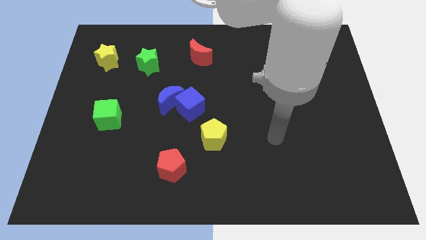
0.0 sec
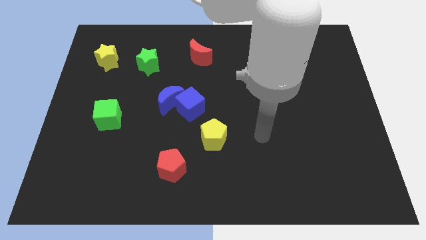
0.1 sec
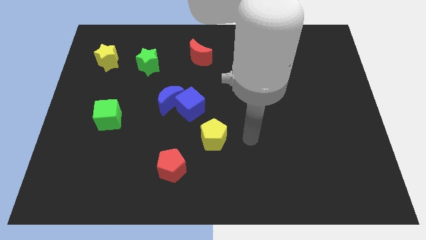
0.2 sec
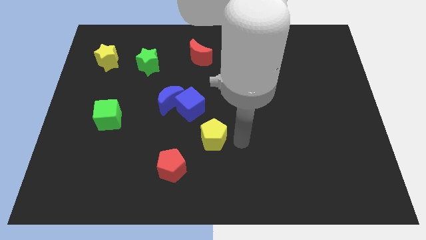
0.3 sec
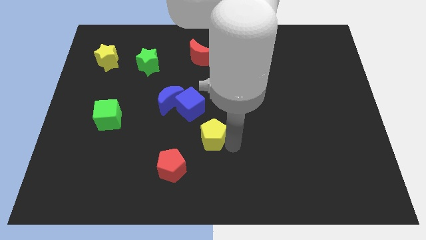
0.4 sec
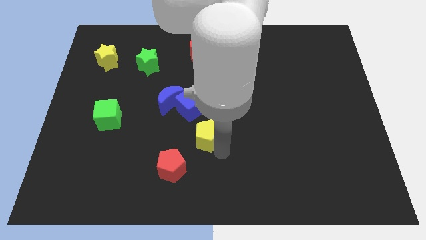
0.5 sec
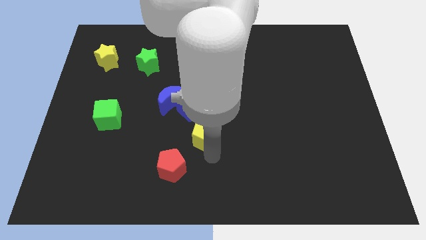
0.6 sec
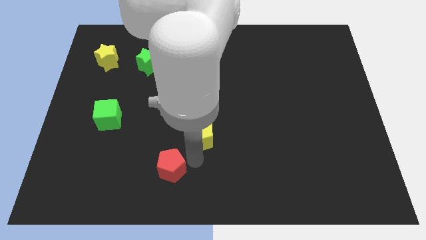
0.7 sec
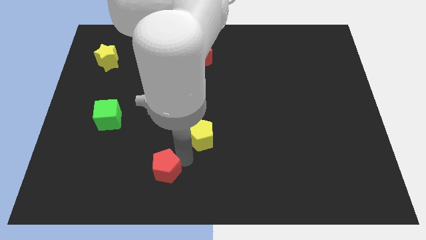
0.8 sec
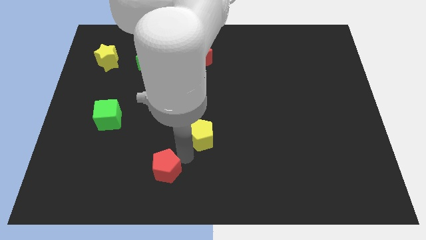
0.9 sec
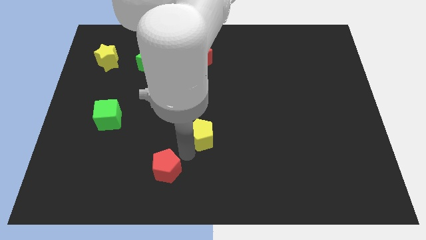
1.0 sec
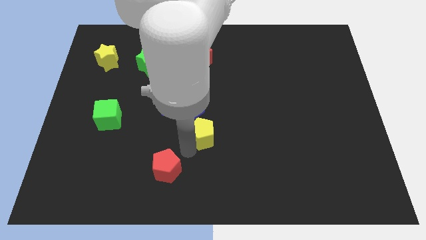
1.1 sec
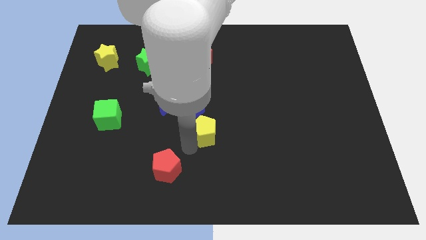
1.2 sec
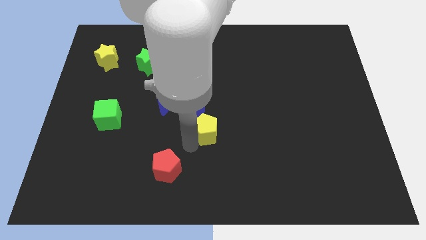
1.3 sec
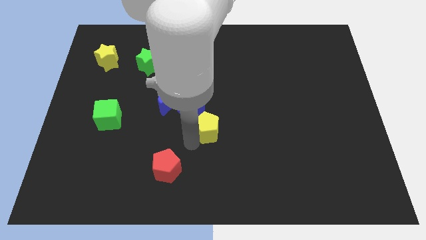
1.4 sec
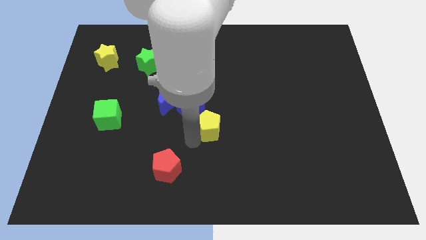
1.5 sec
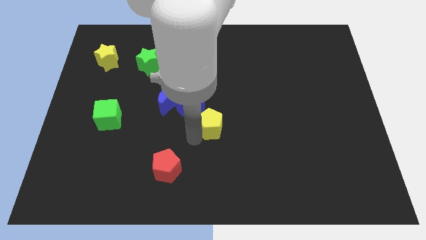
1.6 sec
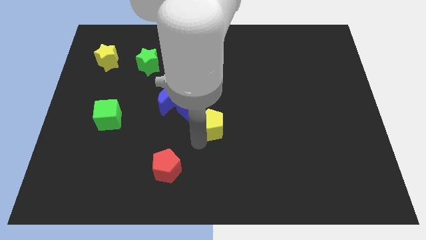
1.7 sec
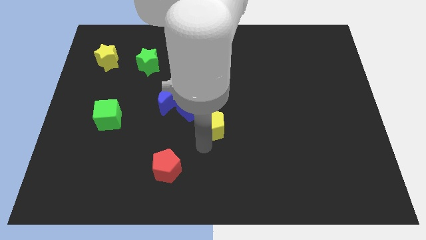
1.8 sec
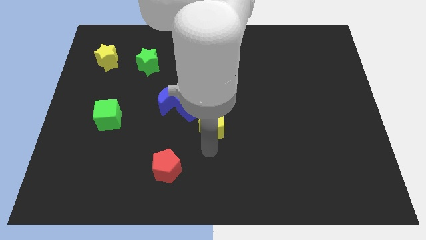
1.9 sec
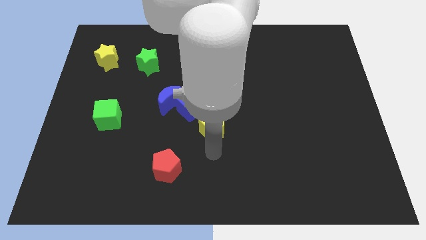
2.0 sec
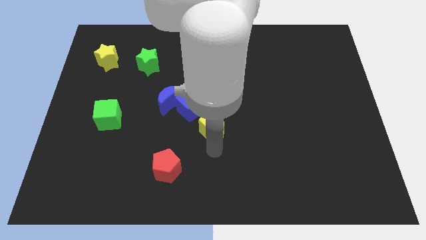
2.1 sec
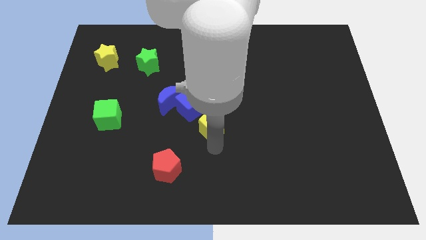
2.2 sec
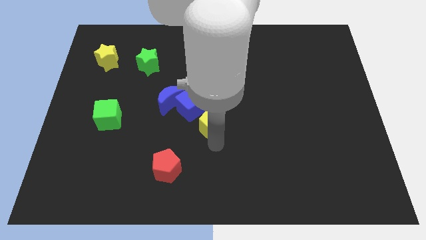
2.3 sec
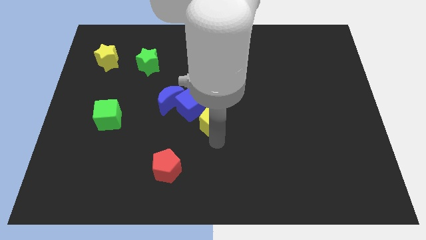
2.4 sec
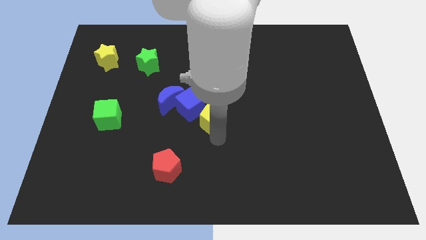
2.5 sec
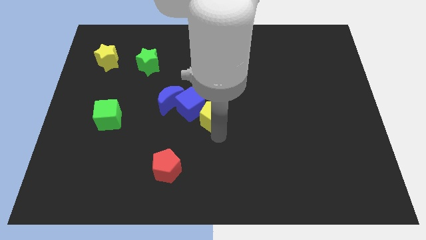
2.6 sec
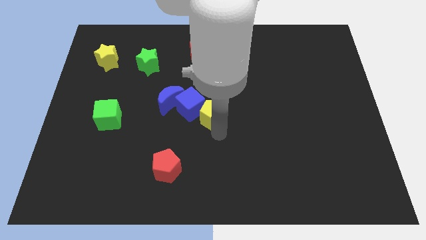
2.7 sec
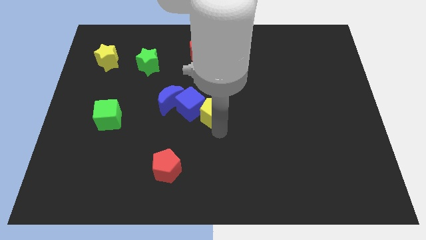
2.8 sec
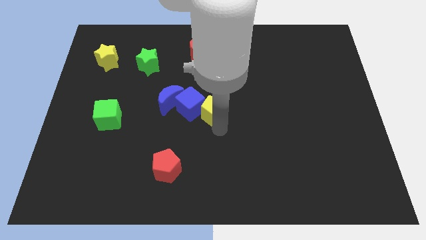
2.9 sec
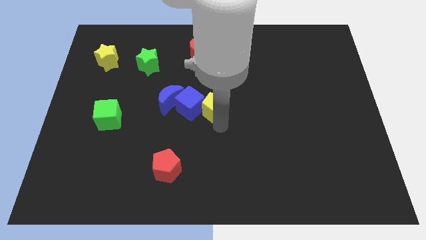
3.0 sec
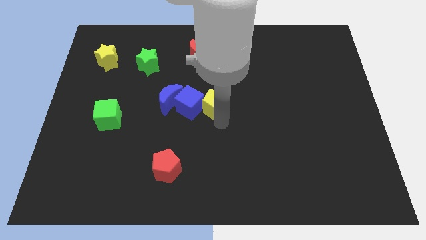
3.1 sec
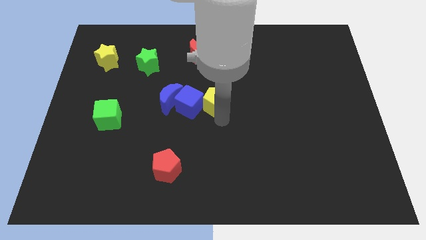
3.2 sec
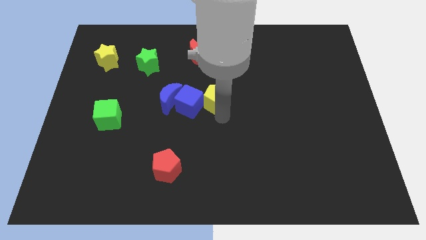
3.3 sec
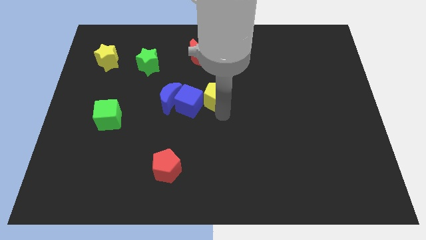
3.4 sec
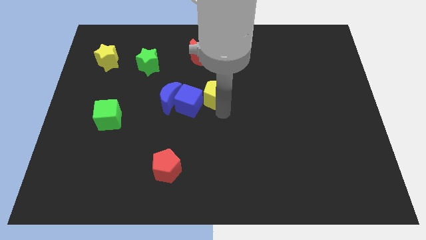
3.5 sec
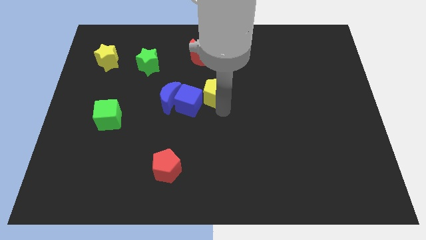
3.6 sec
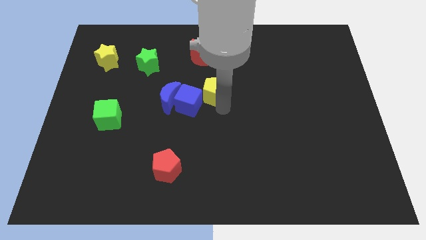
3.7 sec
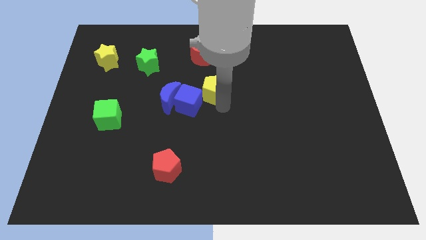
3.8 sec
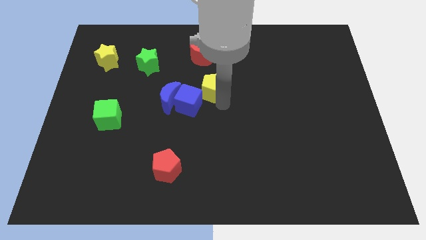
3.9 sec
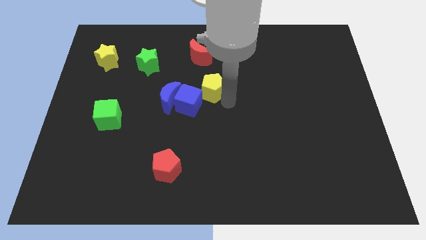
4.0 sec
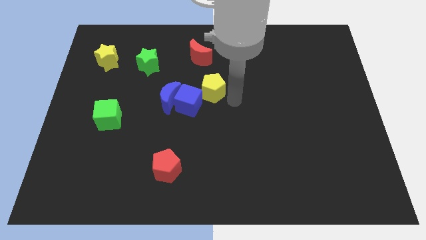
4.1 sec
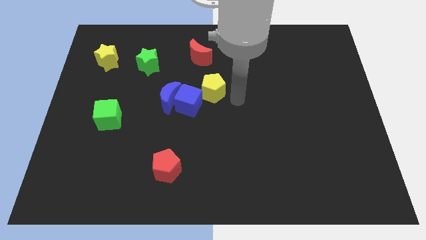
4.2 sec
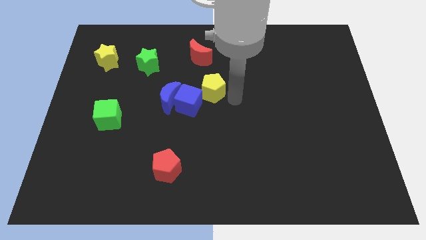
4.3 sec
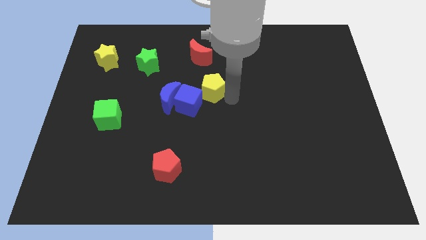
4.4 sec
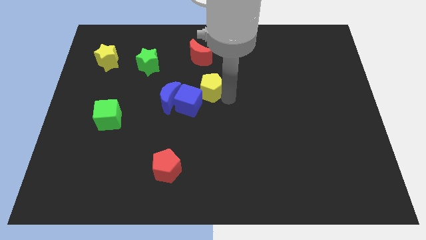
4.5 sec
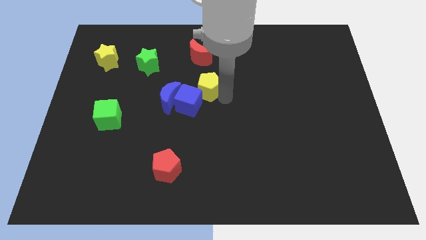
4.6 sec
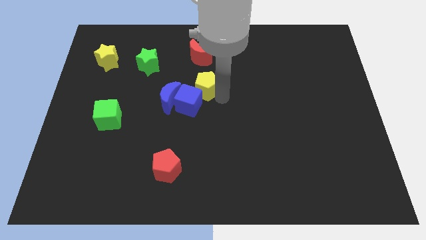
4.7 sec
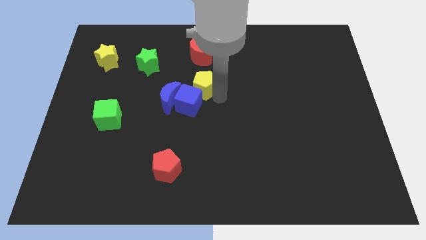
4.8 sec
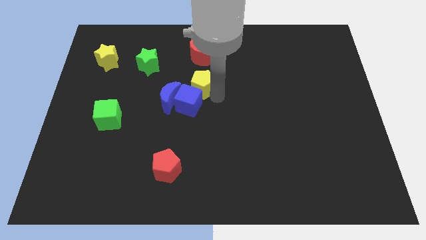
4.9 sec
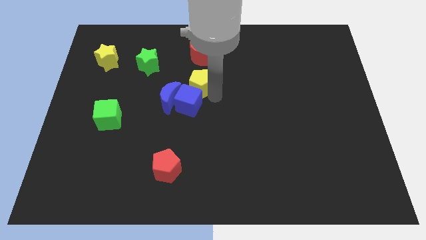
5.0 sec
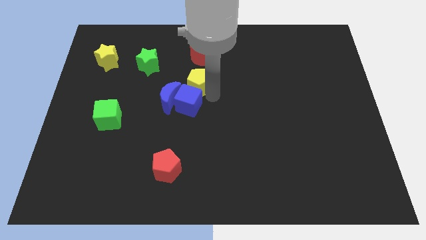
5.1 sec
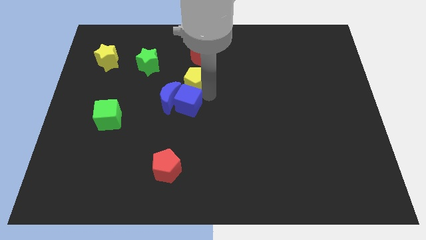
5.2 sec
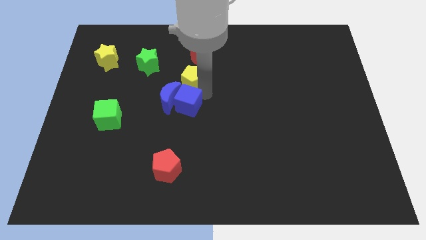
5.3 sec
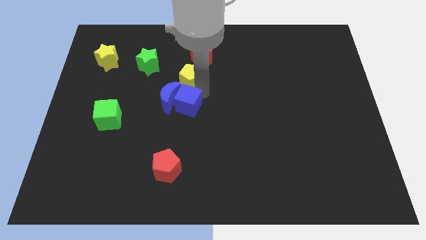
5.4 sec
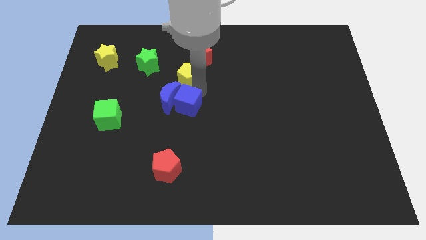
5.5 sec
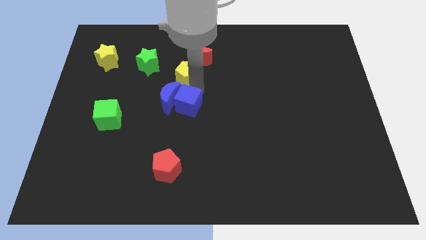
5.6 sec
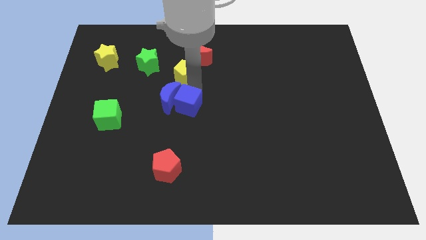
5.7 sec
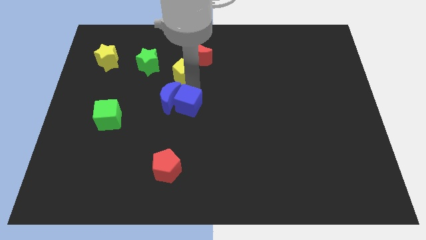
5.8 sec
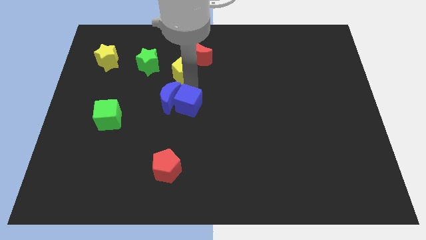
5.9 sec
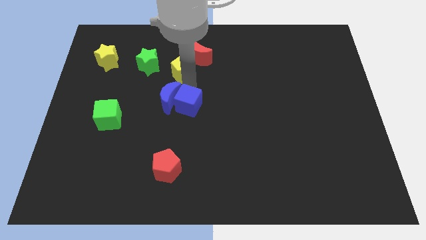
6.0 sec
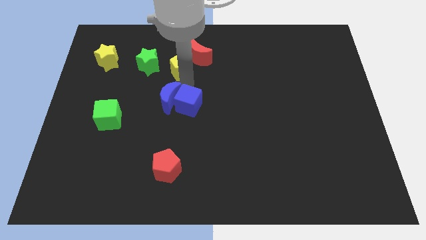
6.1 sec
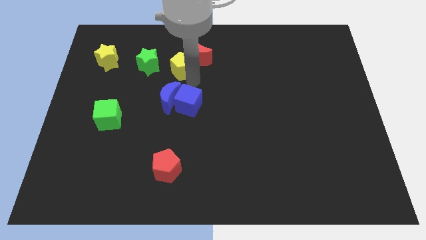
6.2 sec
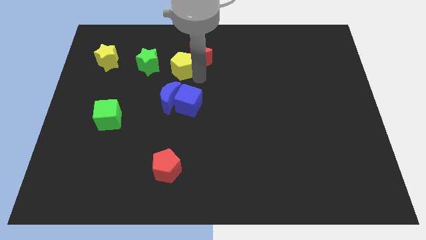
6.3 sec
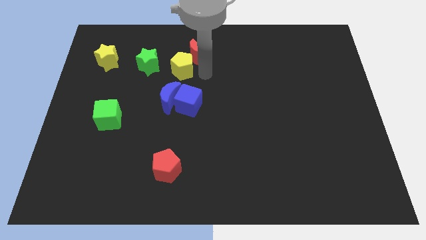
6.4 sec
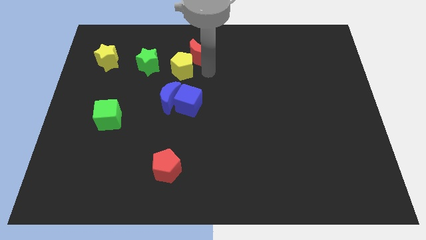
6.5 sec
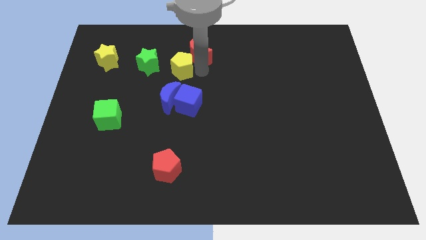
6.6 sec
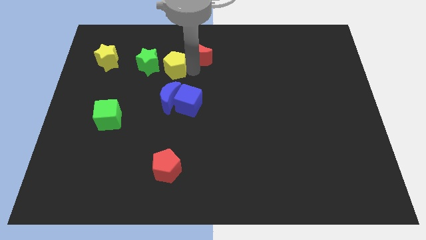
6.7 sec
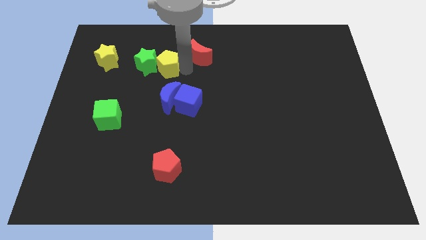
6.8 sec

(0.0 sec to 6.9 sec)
move the yellow pentagon to the green star
